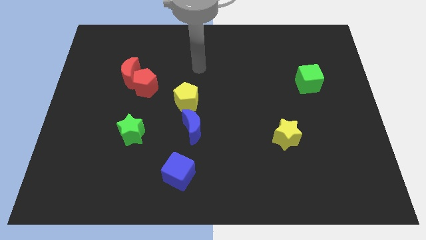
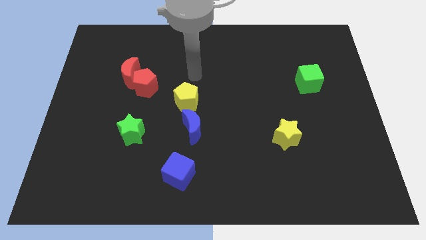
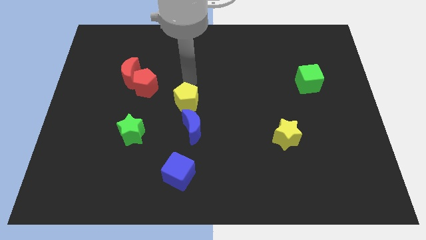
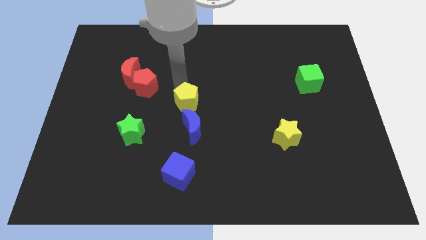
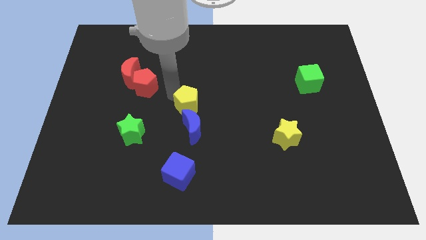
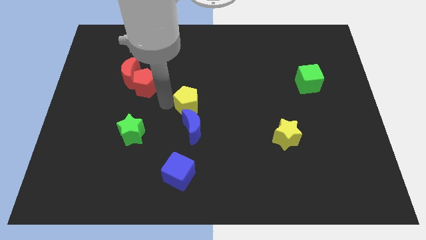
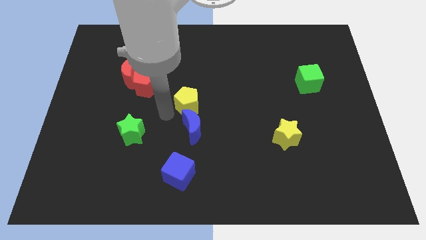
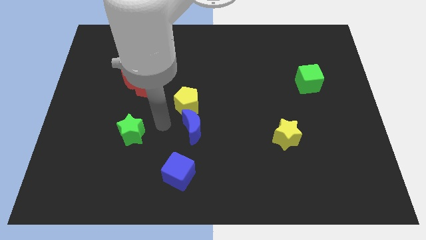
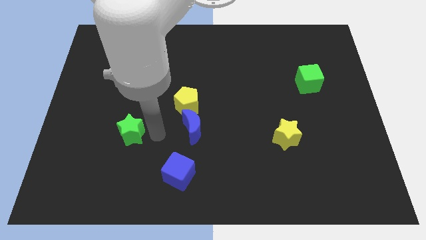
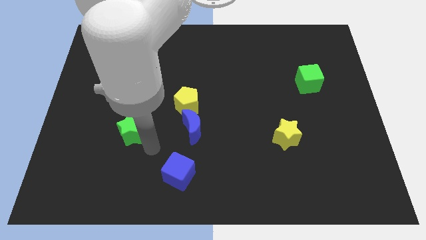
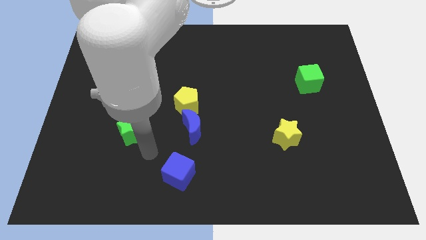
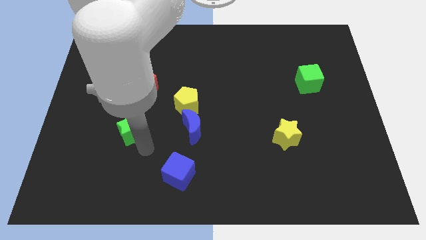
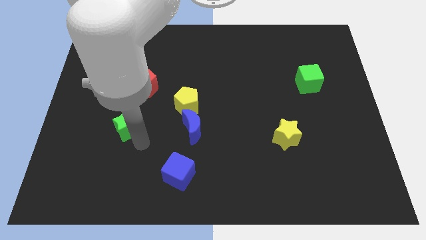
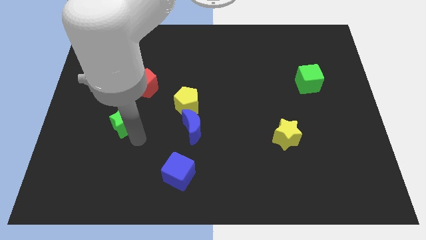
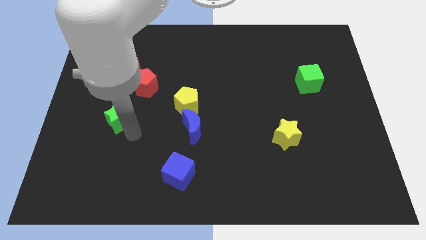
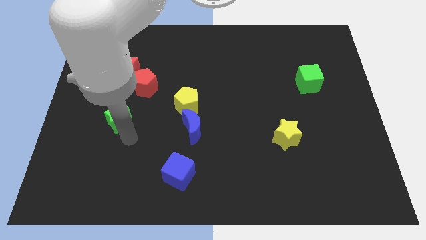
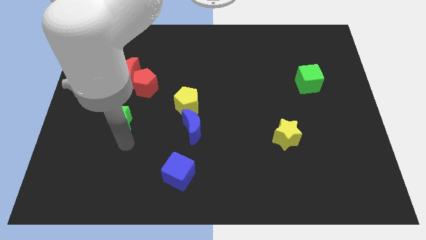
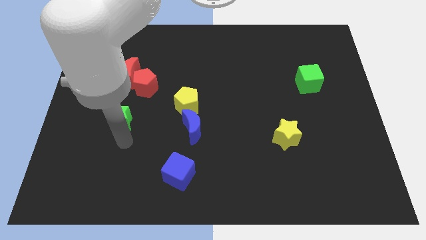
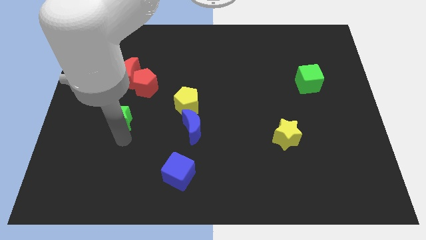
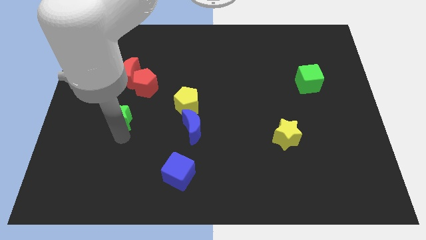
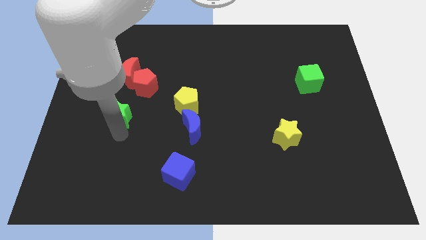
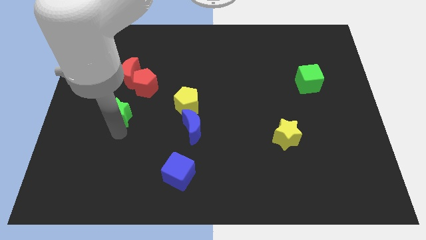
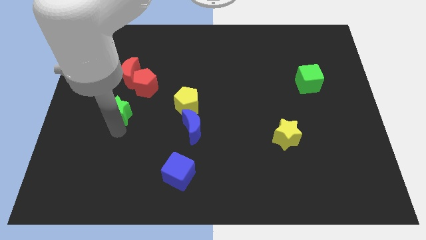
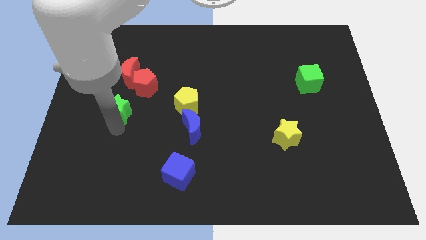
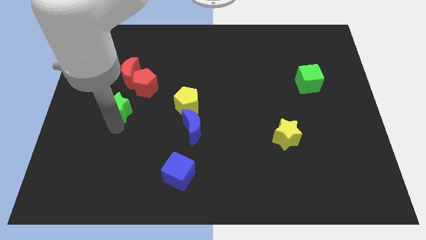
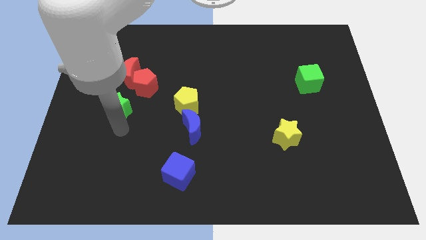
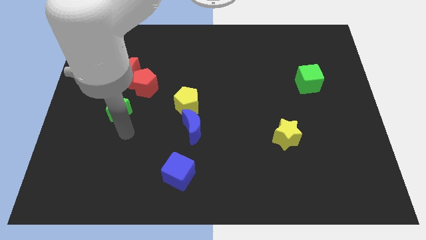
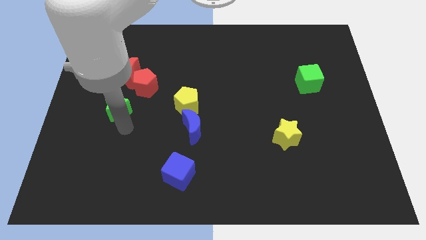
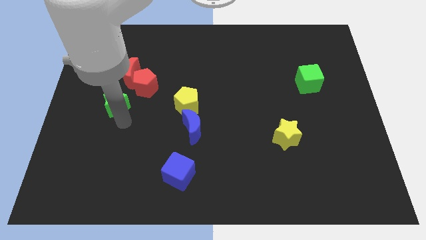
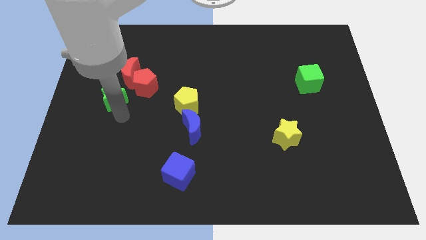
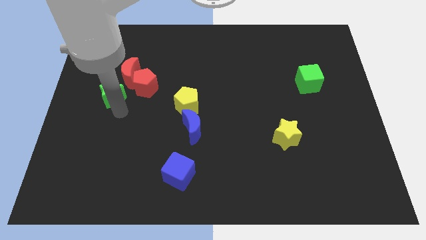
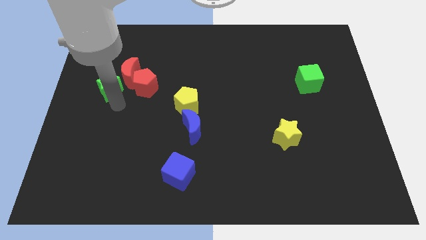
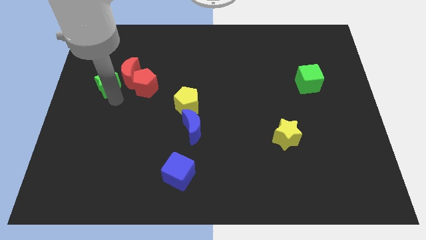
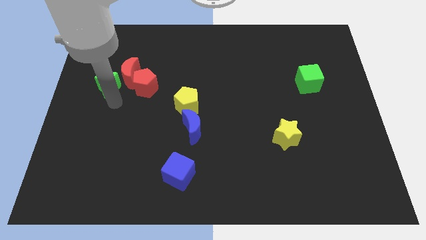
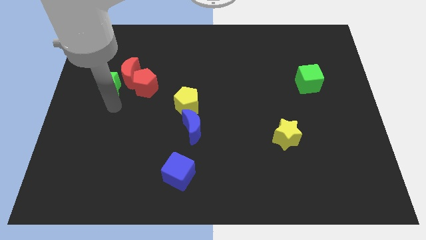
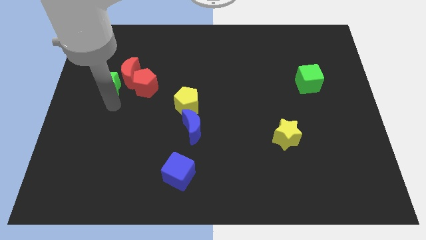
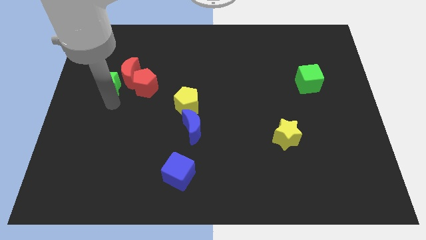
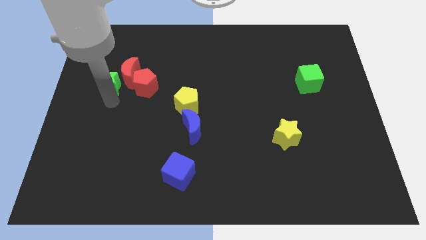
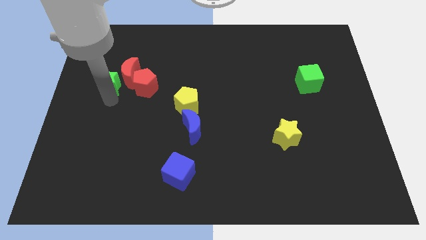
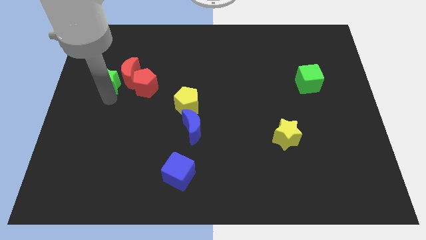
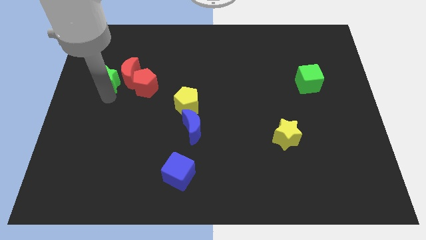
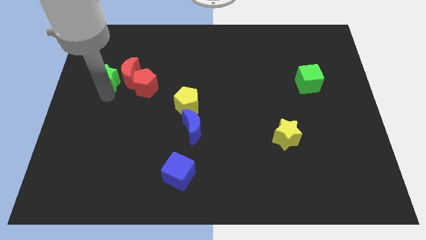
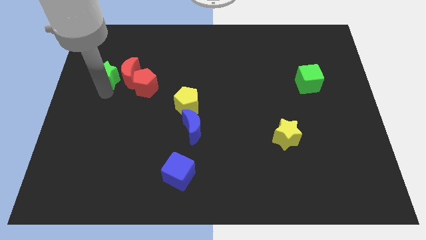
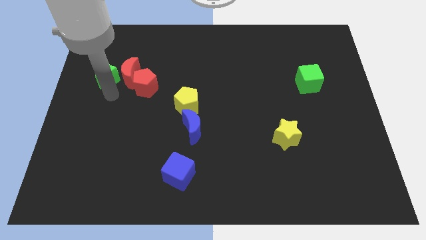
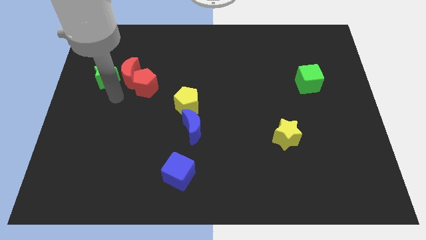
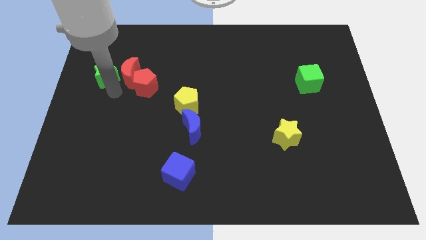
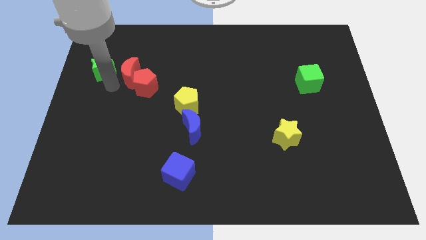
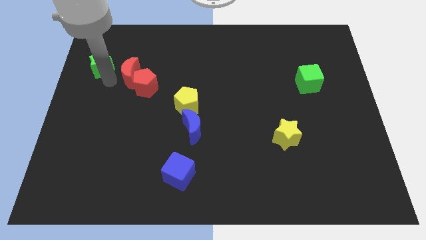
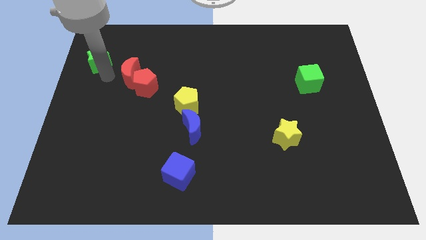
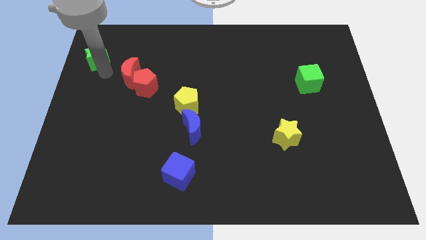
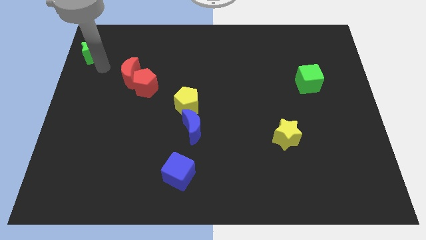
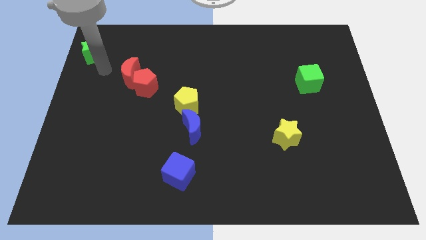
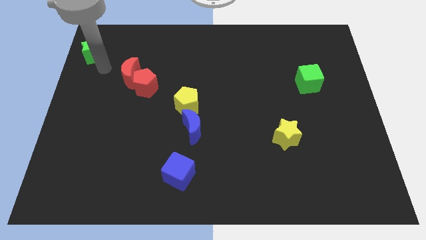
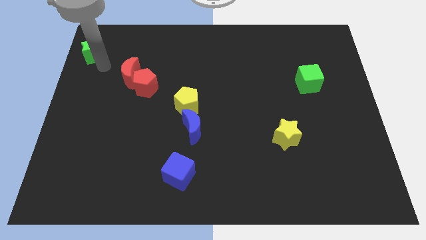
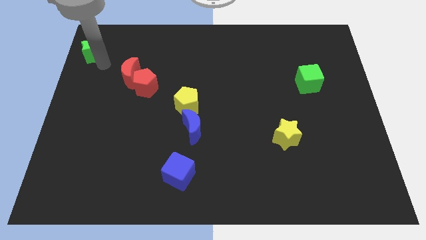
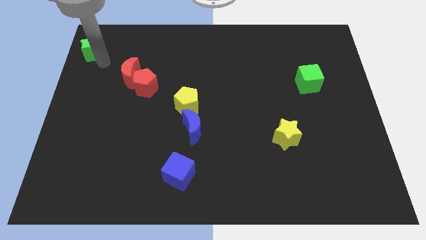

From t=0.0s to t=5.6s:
move the green star to the upper left corner

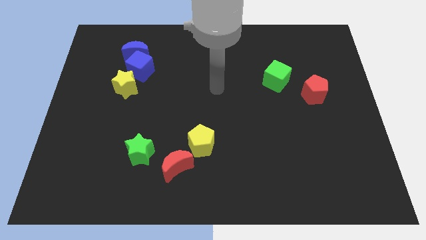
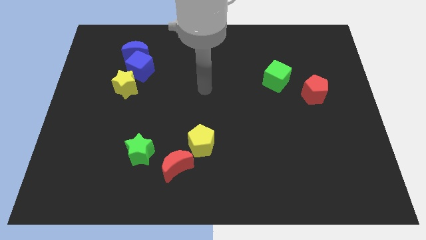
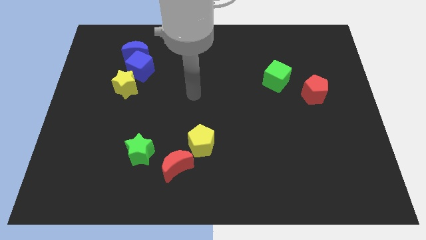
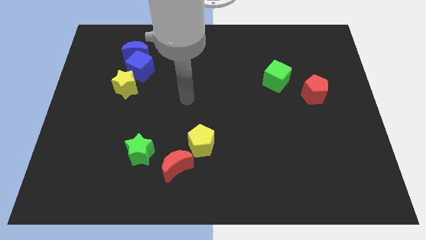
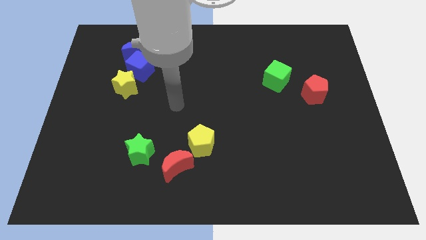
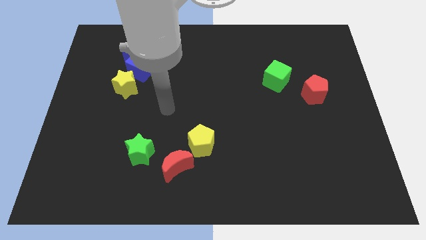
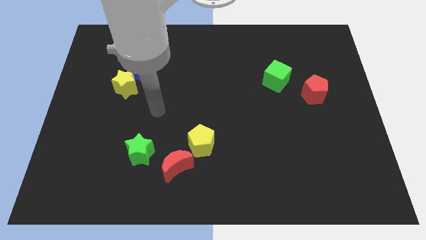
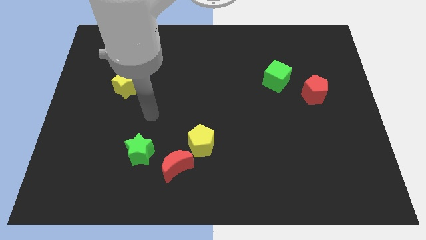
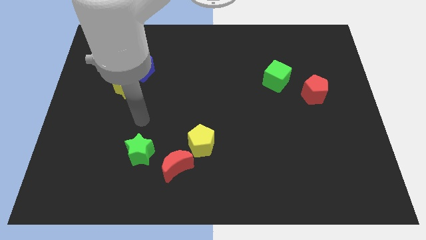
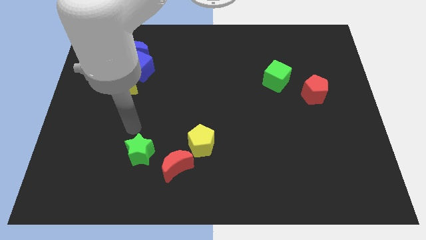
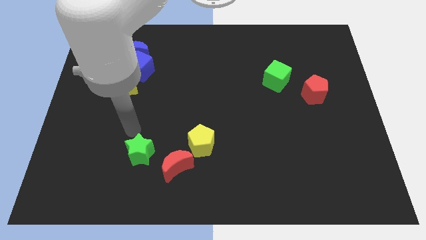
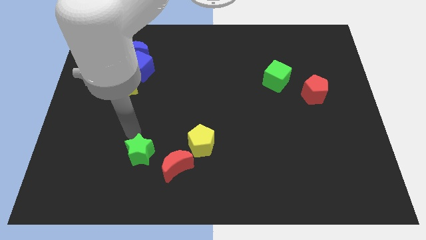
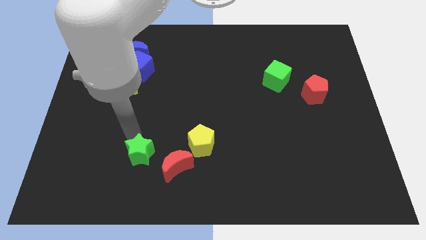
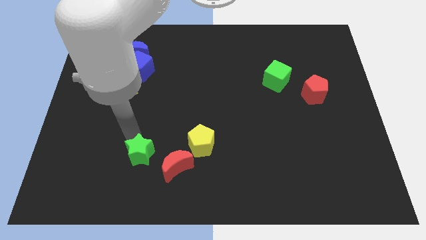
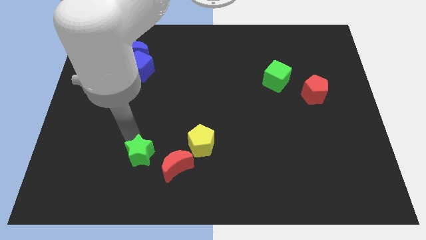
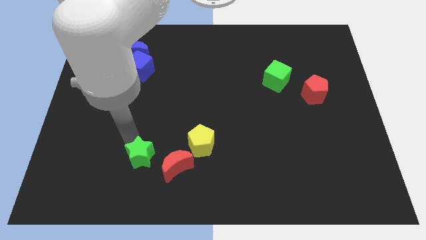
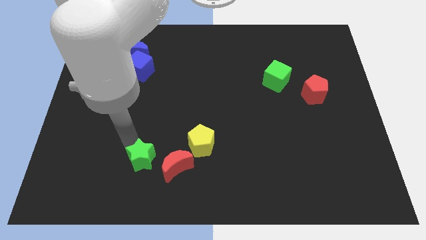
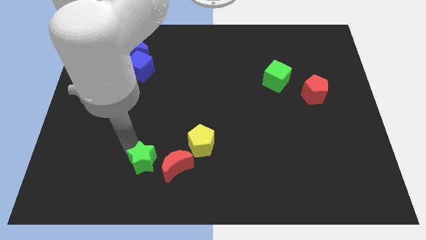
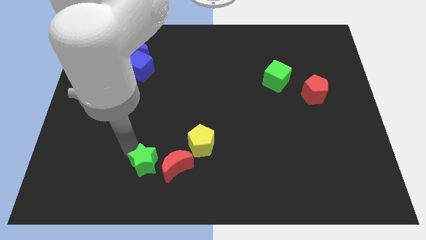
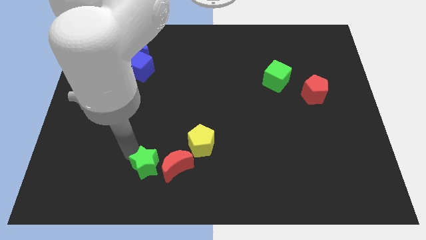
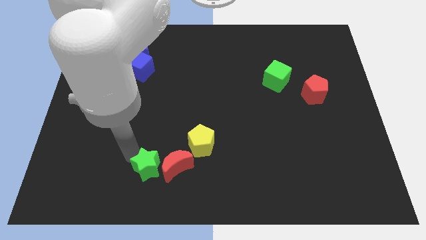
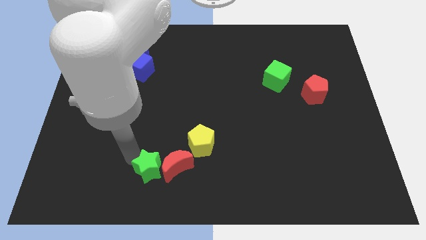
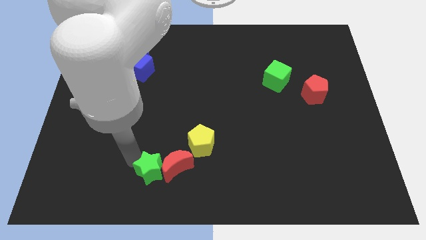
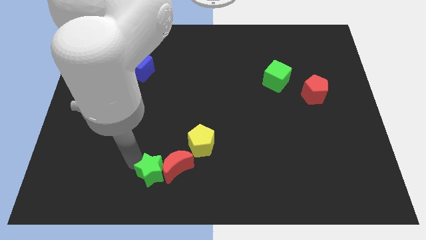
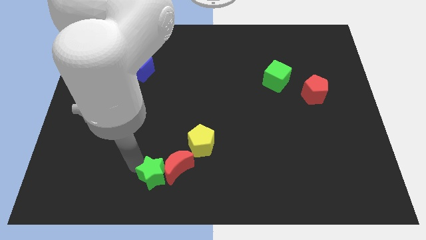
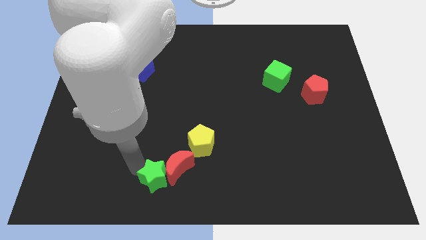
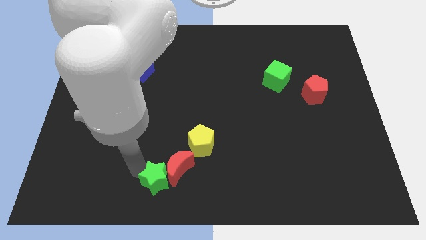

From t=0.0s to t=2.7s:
put the green star to the bottom
